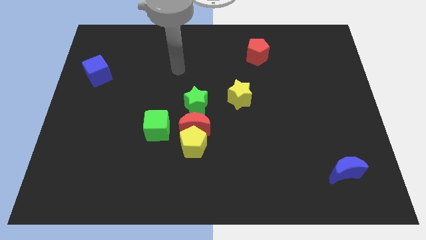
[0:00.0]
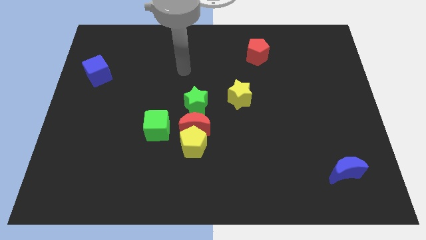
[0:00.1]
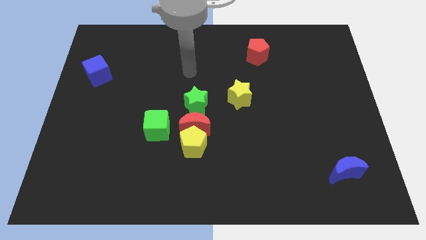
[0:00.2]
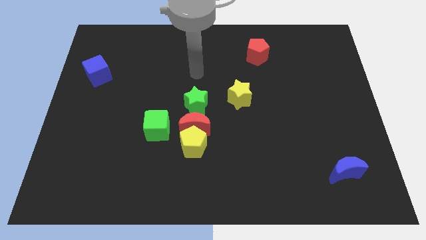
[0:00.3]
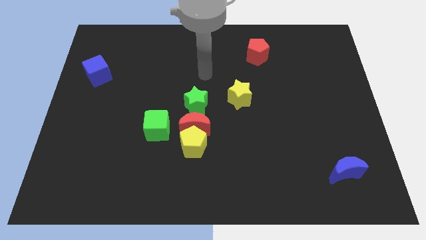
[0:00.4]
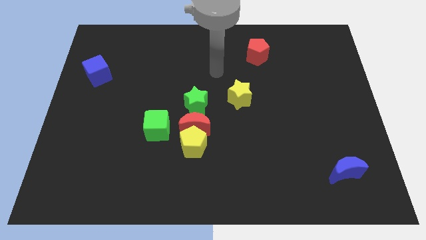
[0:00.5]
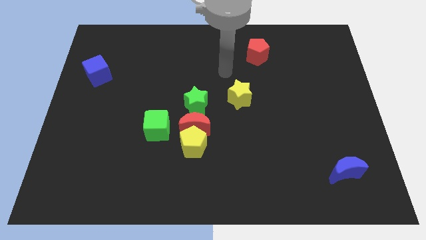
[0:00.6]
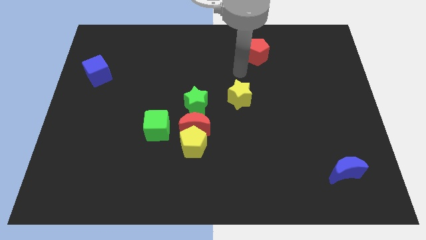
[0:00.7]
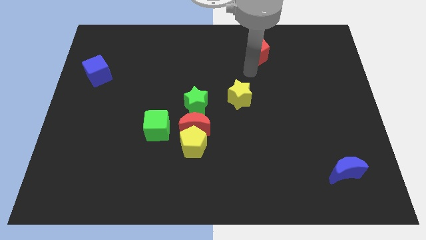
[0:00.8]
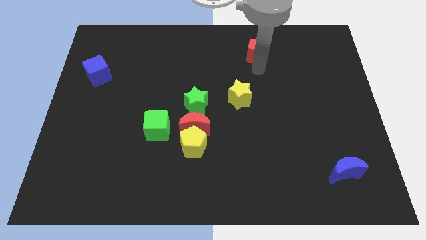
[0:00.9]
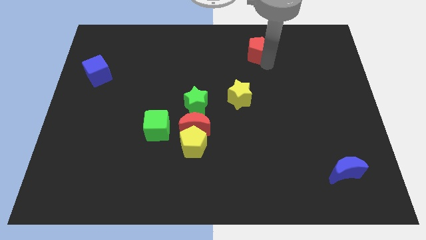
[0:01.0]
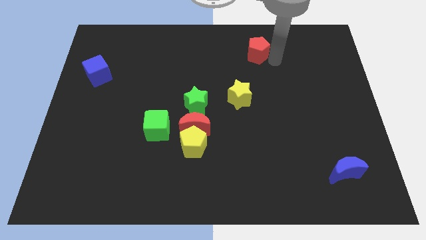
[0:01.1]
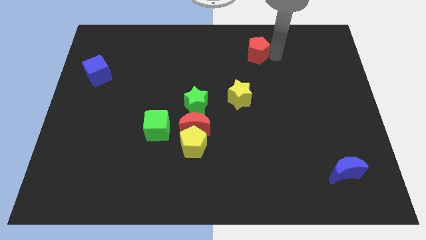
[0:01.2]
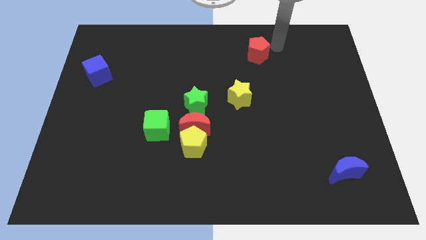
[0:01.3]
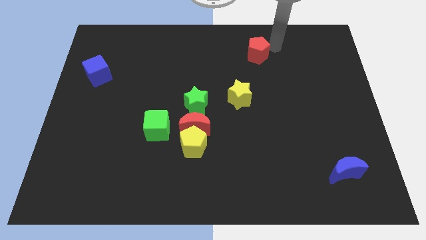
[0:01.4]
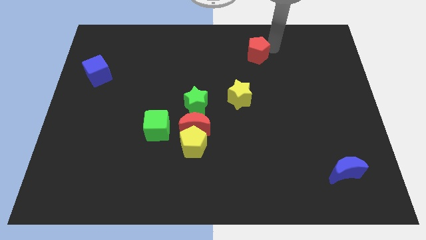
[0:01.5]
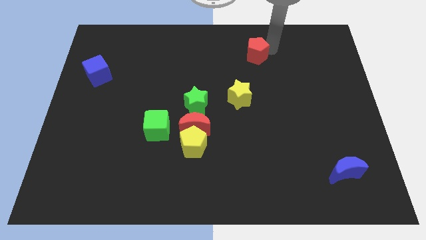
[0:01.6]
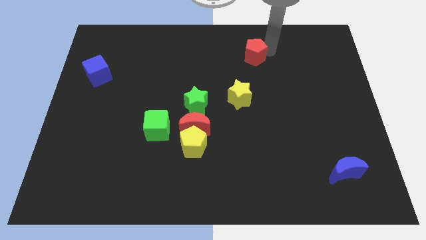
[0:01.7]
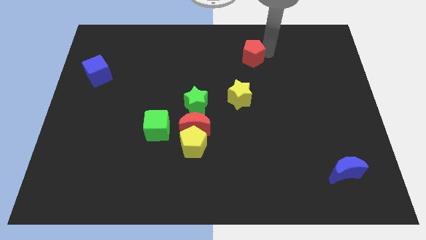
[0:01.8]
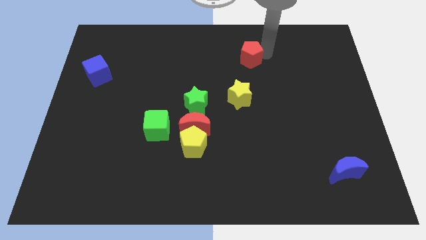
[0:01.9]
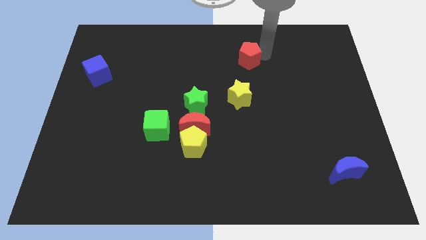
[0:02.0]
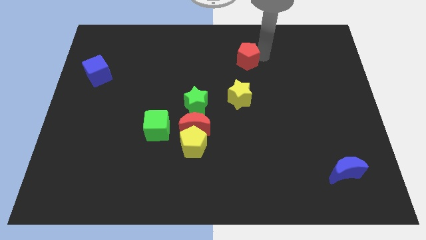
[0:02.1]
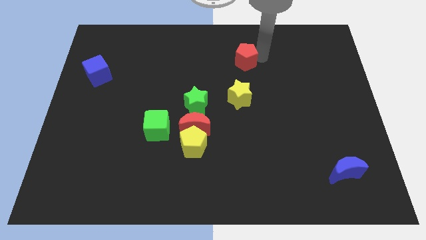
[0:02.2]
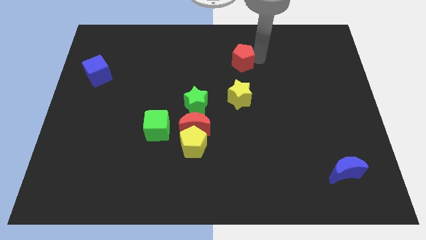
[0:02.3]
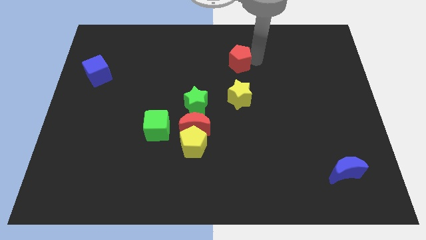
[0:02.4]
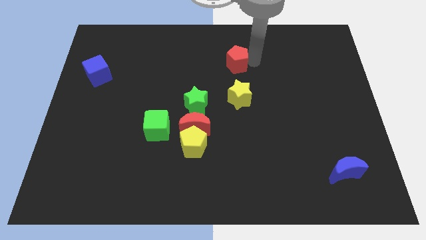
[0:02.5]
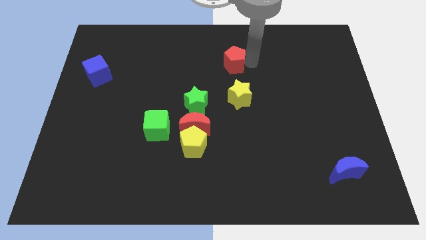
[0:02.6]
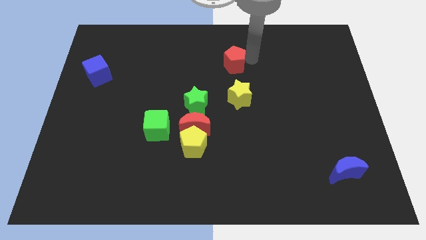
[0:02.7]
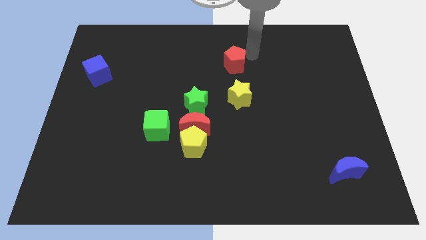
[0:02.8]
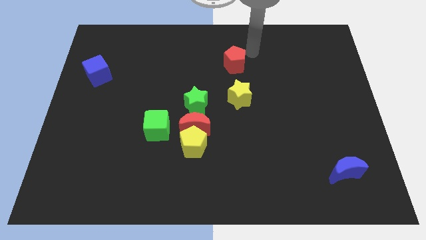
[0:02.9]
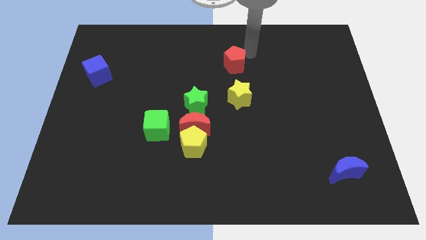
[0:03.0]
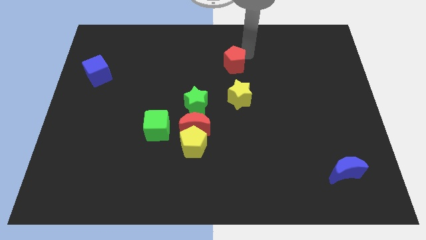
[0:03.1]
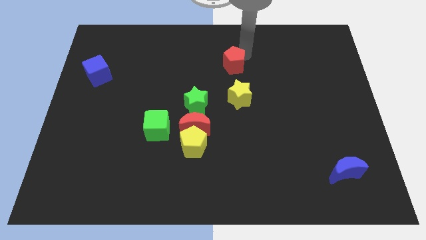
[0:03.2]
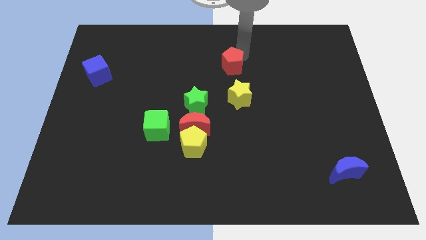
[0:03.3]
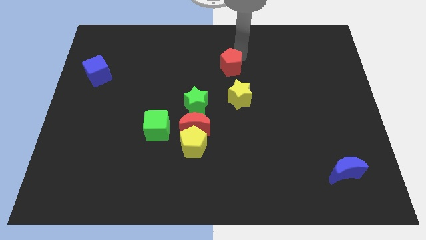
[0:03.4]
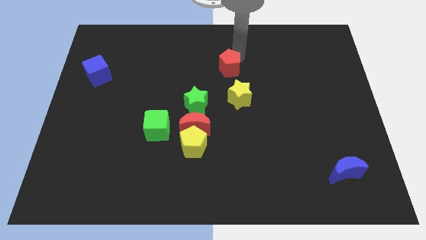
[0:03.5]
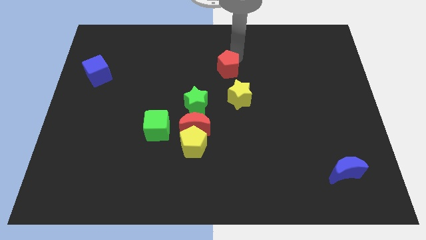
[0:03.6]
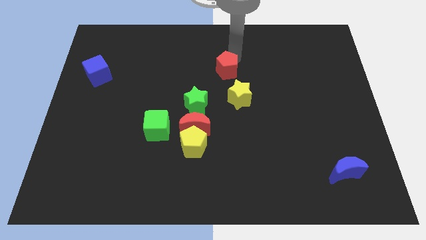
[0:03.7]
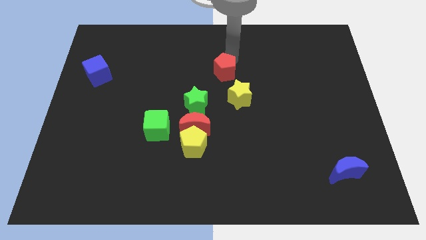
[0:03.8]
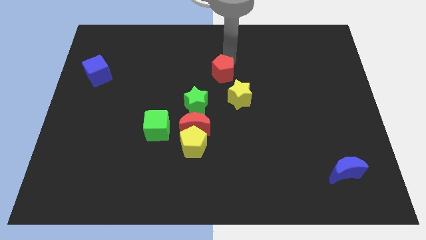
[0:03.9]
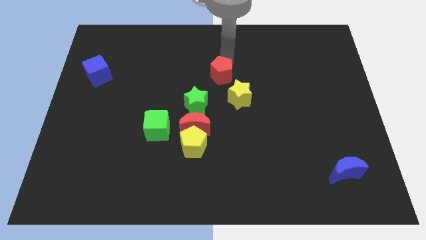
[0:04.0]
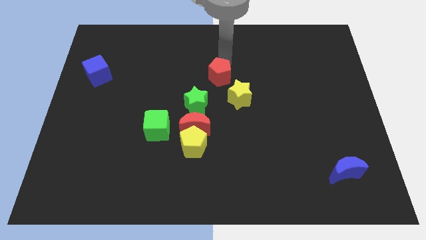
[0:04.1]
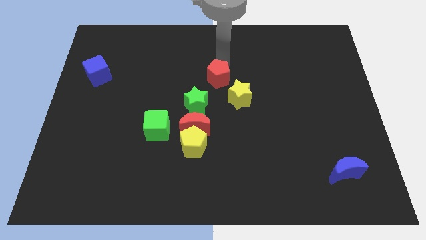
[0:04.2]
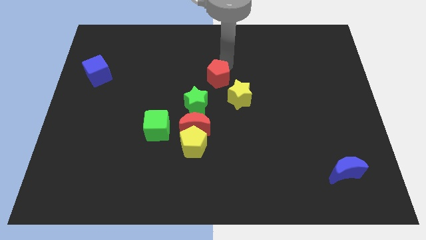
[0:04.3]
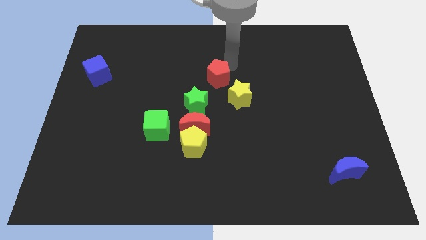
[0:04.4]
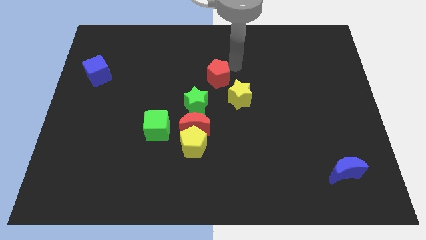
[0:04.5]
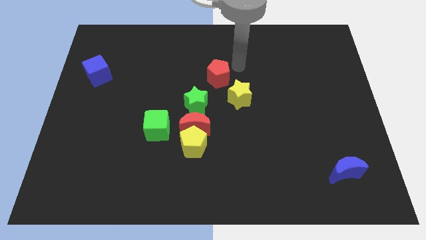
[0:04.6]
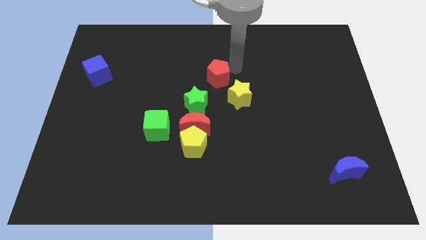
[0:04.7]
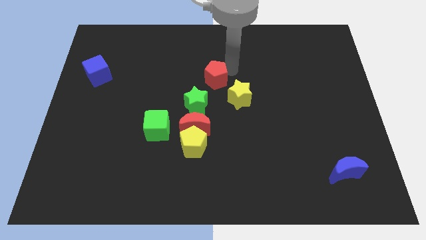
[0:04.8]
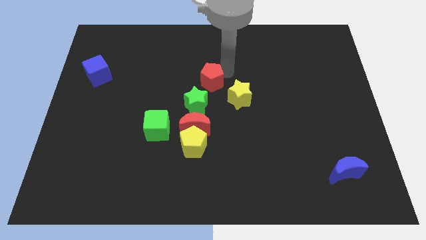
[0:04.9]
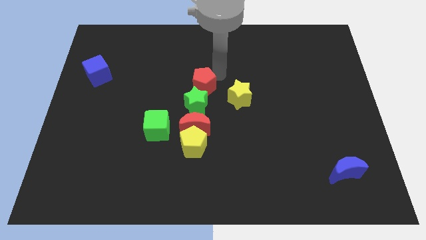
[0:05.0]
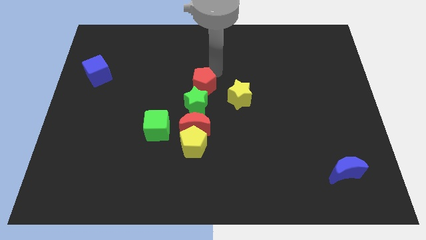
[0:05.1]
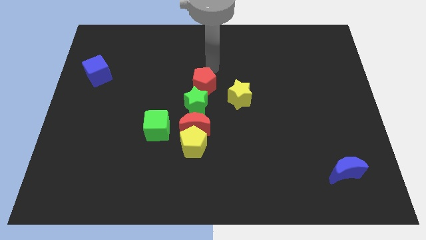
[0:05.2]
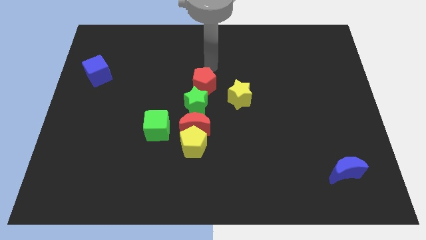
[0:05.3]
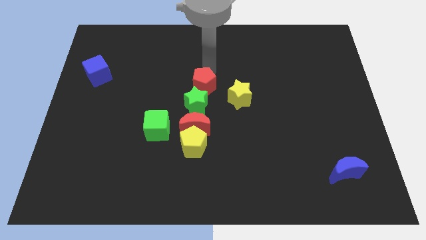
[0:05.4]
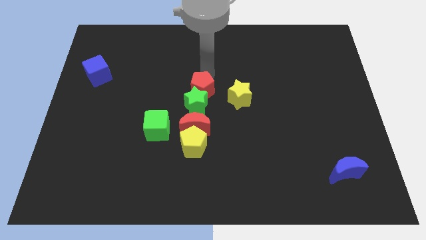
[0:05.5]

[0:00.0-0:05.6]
push the red pentagon to the top of the yellow pentagon

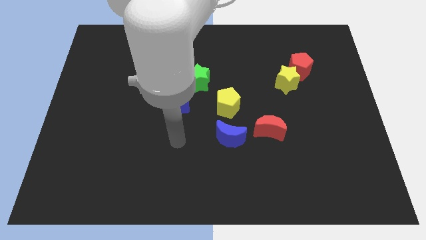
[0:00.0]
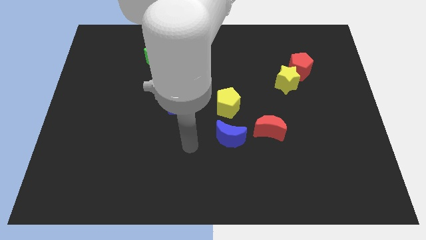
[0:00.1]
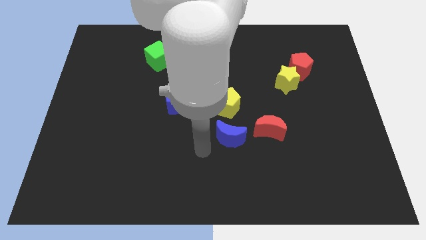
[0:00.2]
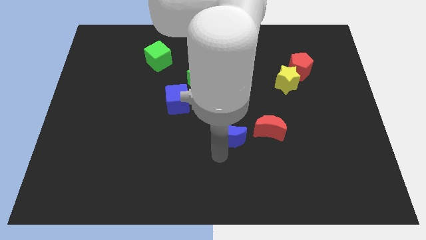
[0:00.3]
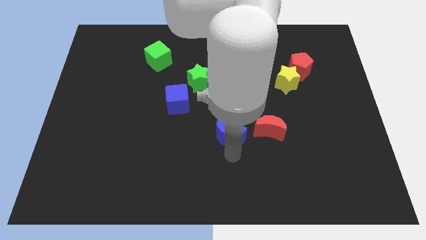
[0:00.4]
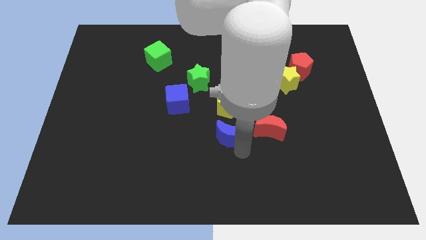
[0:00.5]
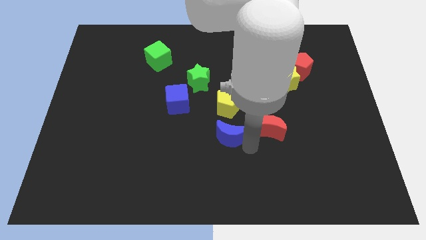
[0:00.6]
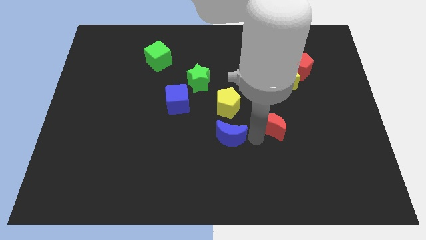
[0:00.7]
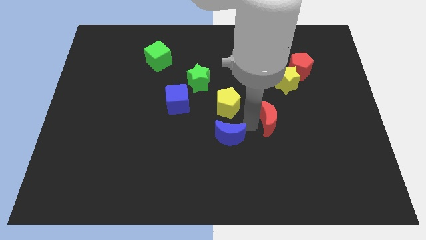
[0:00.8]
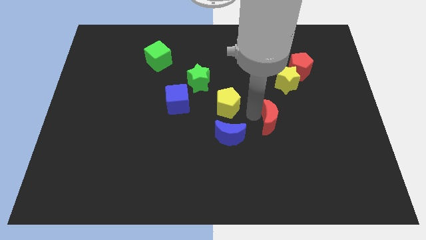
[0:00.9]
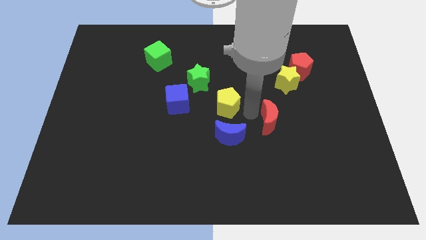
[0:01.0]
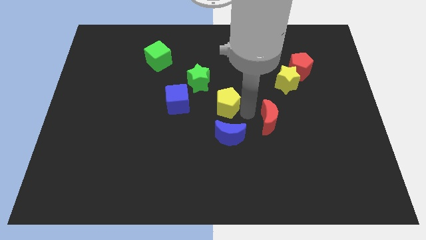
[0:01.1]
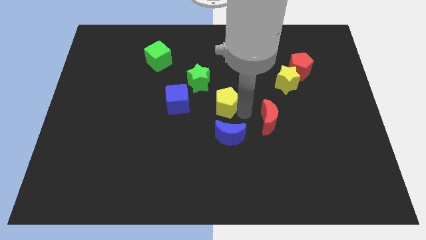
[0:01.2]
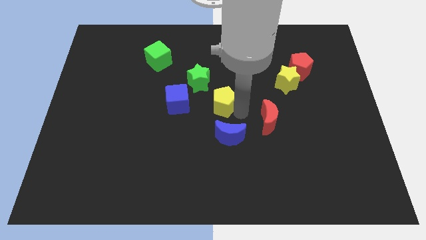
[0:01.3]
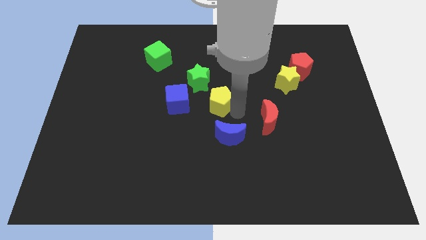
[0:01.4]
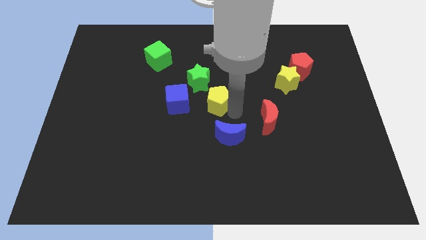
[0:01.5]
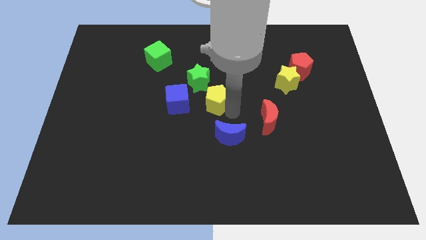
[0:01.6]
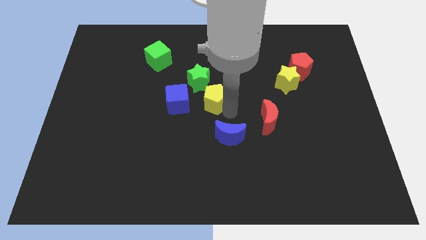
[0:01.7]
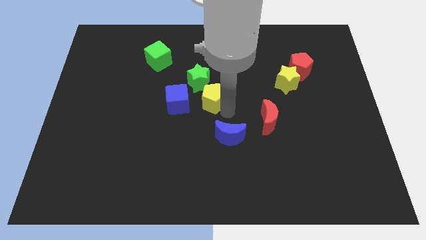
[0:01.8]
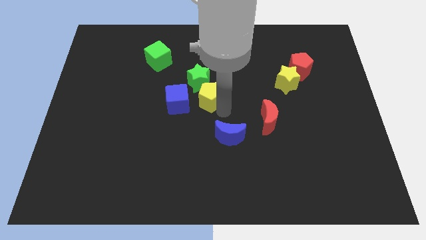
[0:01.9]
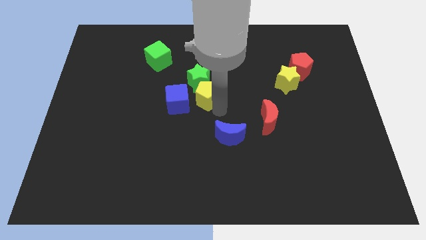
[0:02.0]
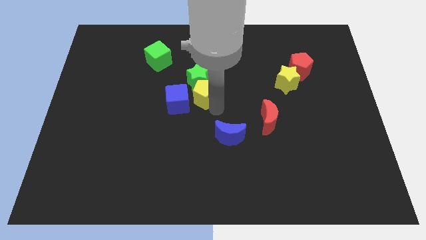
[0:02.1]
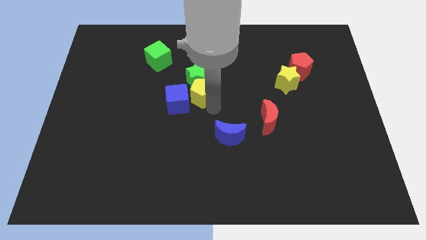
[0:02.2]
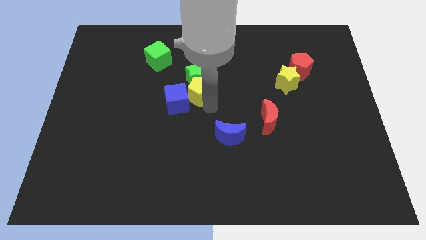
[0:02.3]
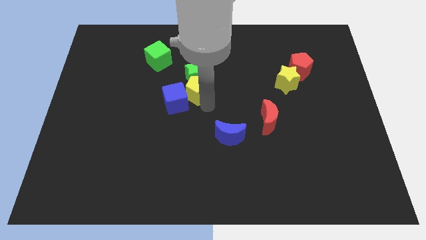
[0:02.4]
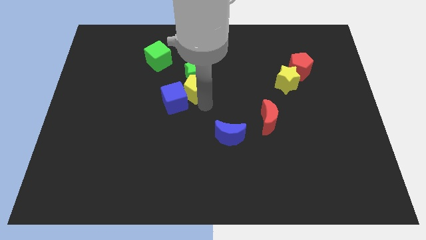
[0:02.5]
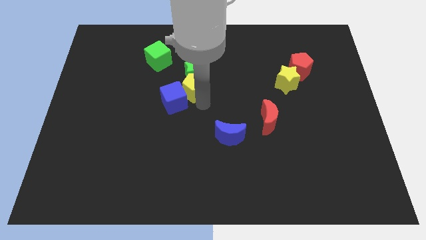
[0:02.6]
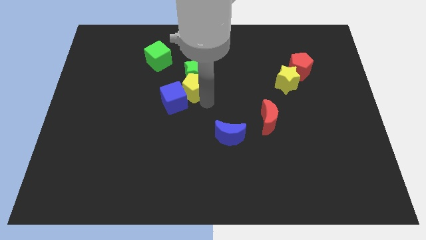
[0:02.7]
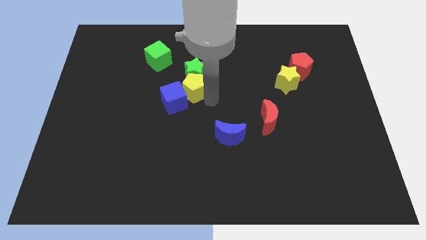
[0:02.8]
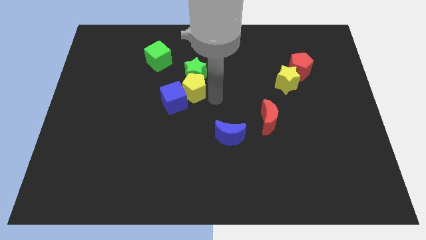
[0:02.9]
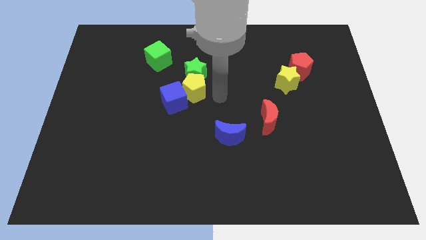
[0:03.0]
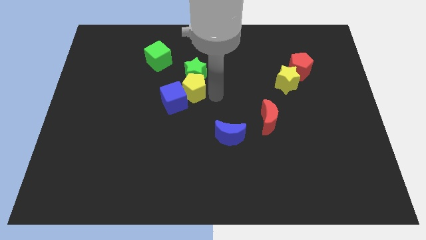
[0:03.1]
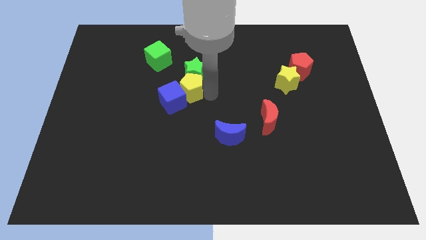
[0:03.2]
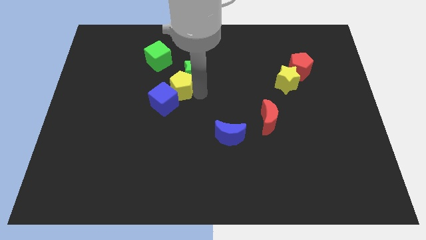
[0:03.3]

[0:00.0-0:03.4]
slide the yellow pentagon to the left side of the green star
